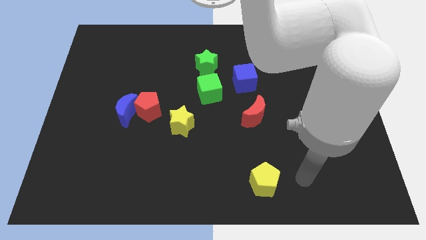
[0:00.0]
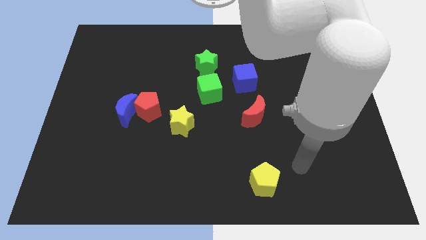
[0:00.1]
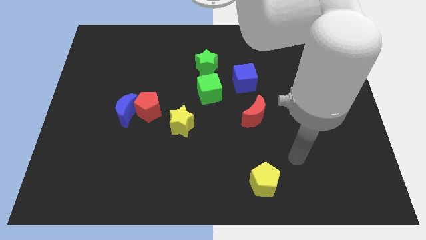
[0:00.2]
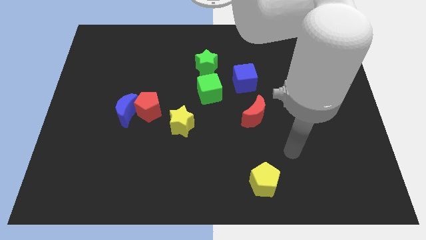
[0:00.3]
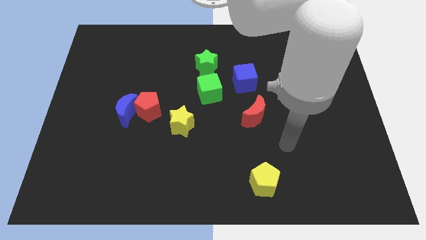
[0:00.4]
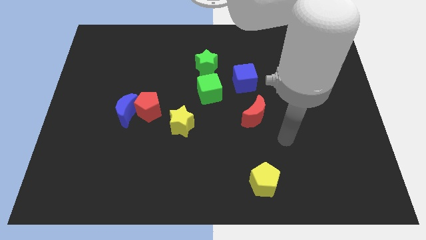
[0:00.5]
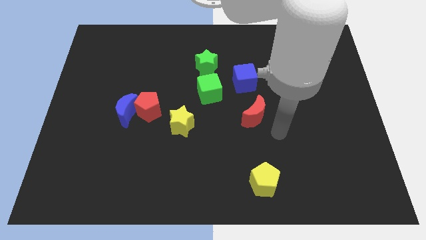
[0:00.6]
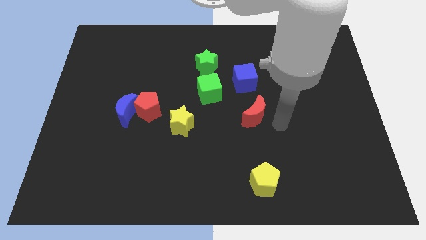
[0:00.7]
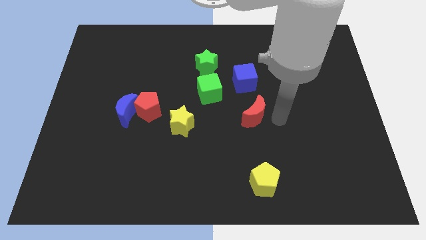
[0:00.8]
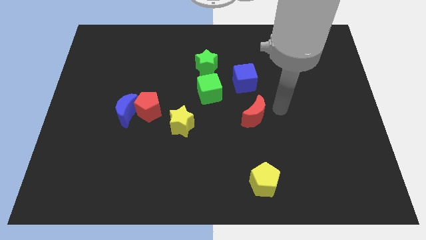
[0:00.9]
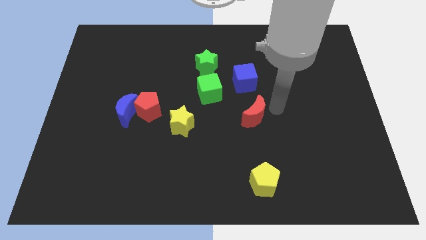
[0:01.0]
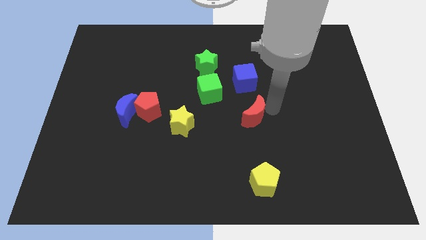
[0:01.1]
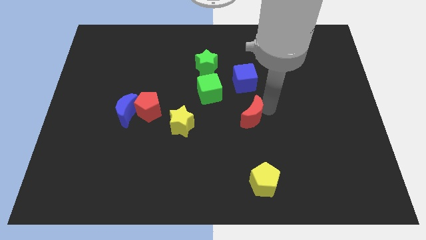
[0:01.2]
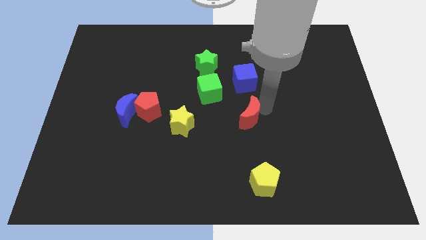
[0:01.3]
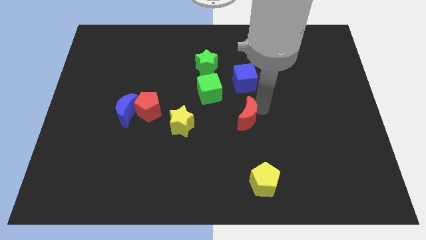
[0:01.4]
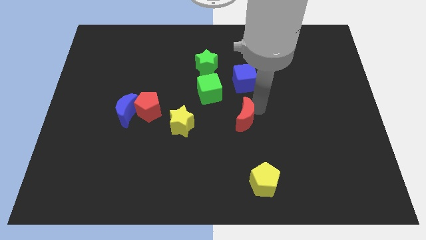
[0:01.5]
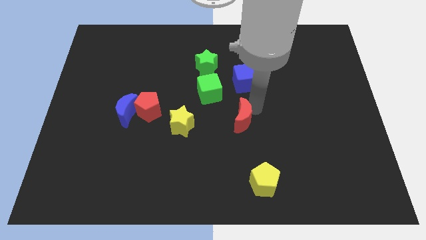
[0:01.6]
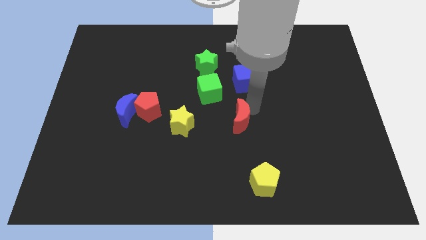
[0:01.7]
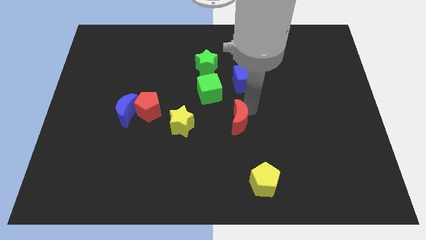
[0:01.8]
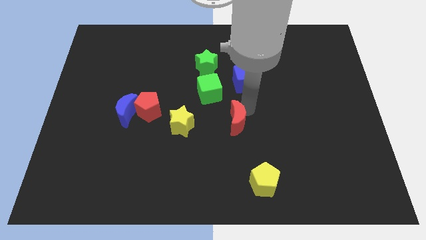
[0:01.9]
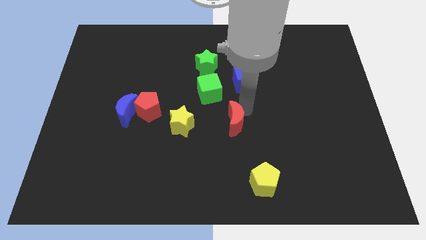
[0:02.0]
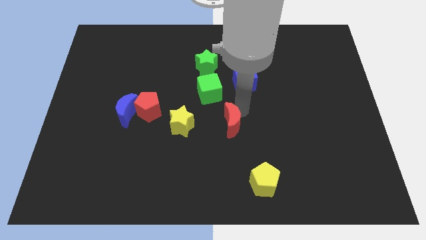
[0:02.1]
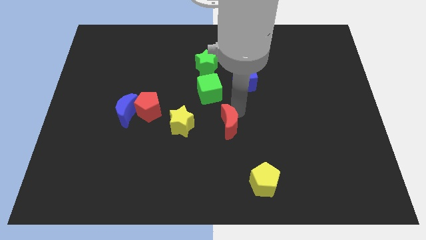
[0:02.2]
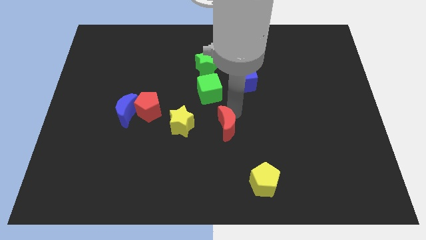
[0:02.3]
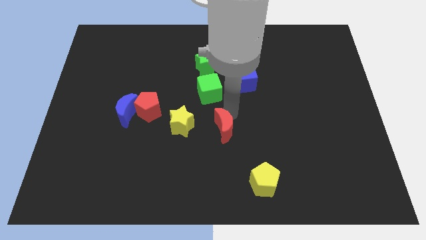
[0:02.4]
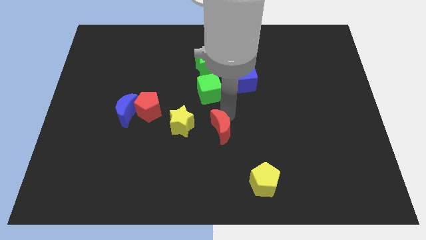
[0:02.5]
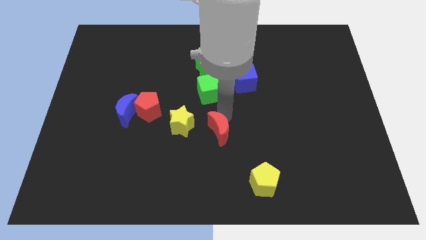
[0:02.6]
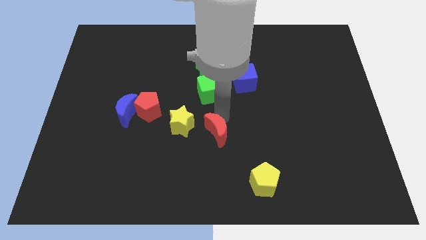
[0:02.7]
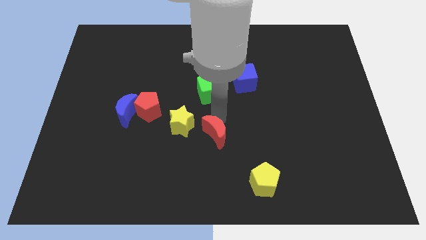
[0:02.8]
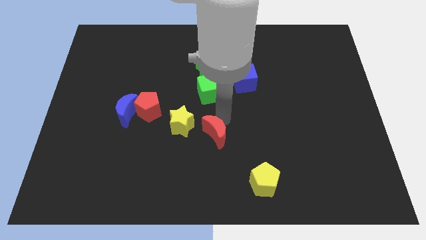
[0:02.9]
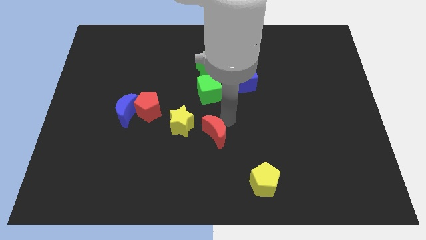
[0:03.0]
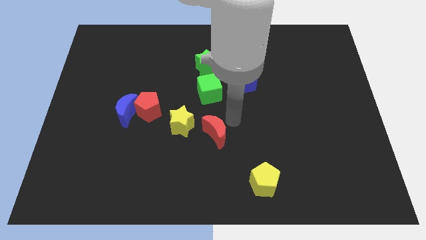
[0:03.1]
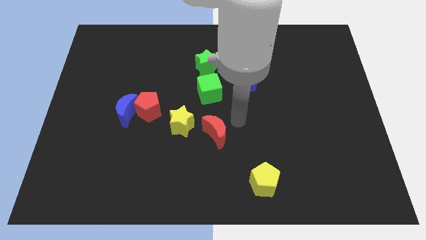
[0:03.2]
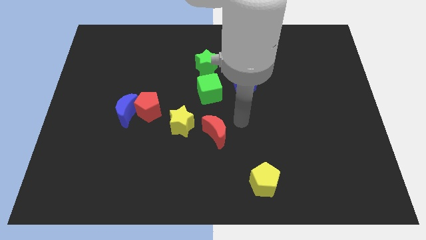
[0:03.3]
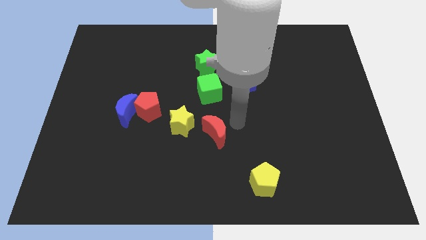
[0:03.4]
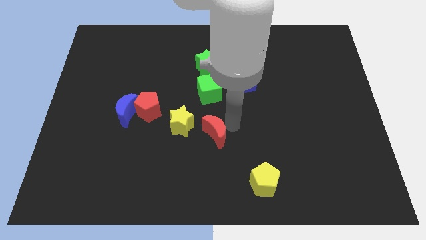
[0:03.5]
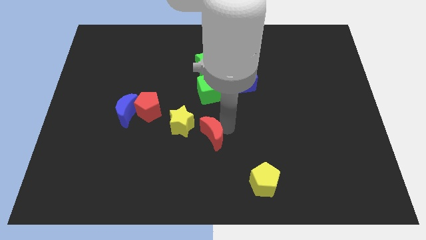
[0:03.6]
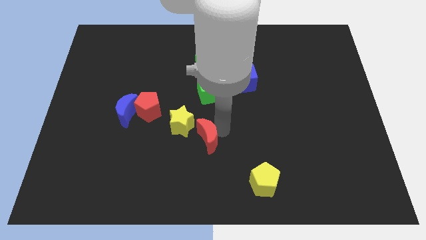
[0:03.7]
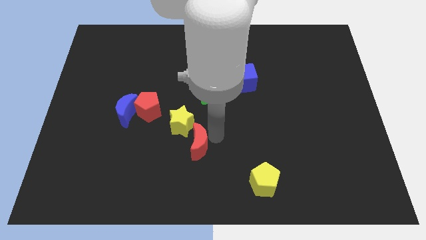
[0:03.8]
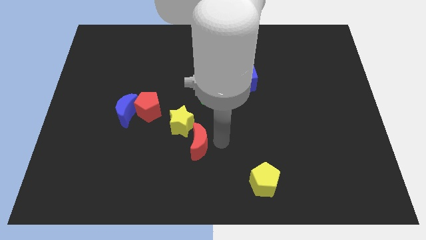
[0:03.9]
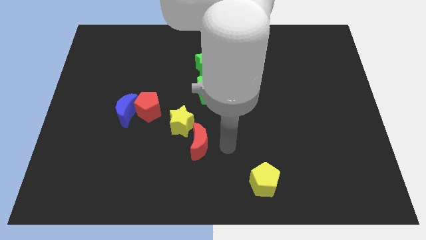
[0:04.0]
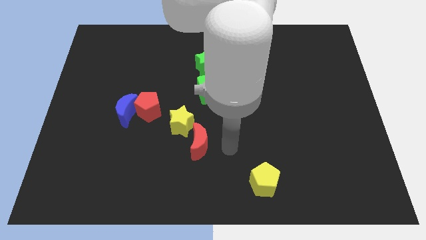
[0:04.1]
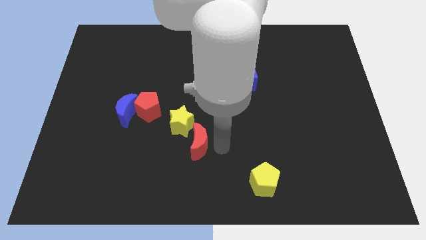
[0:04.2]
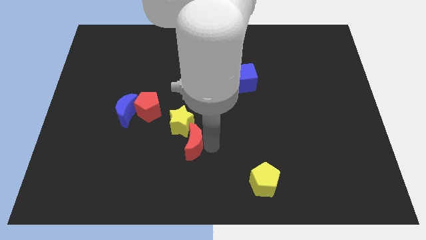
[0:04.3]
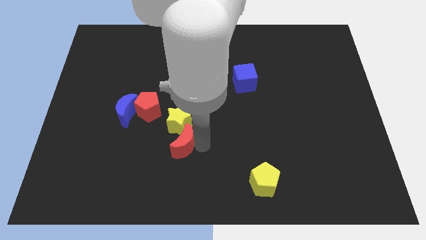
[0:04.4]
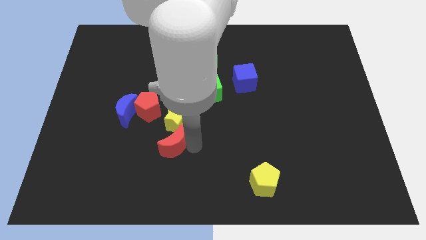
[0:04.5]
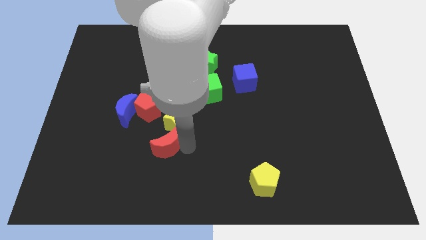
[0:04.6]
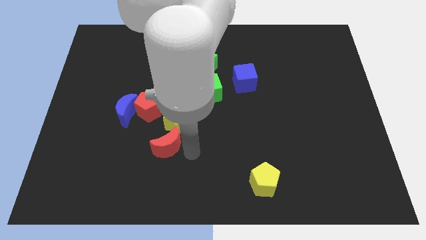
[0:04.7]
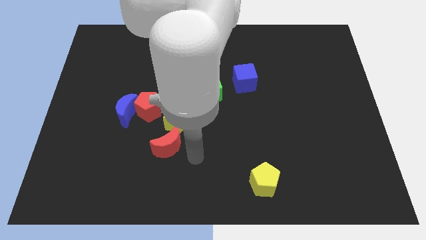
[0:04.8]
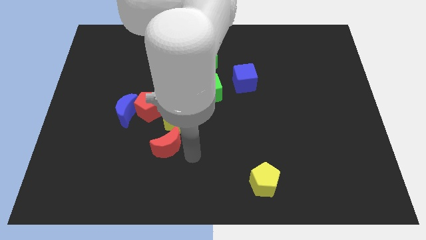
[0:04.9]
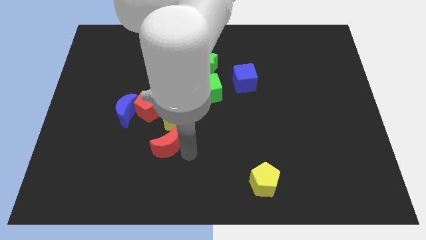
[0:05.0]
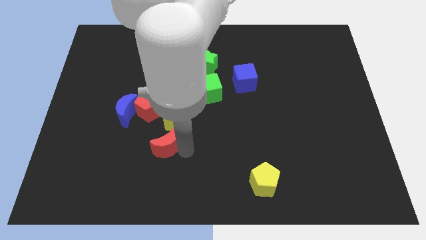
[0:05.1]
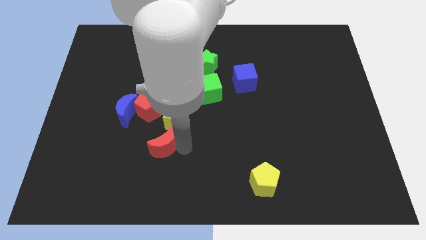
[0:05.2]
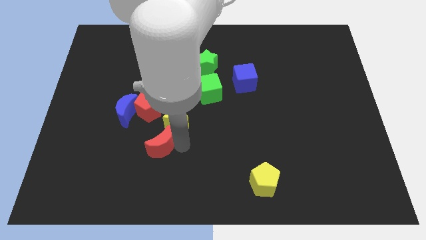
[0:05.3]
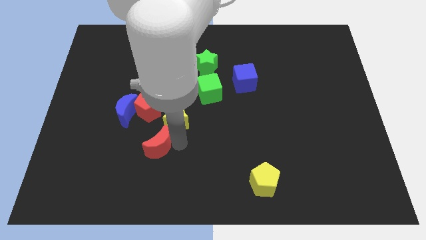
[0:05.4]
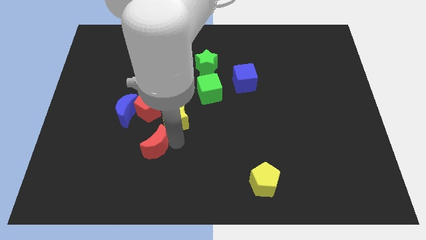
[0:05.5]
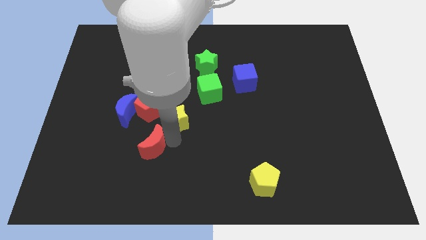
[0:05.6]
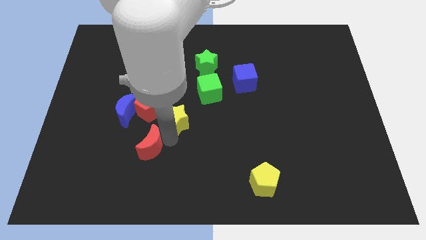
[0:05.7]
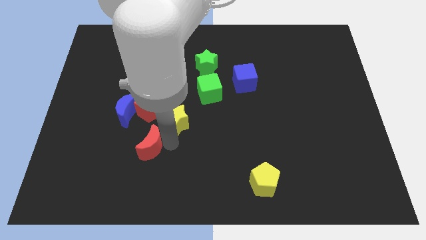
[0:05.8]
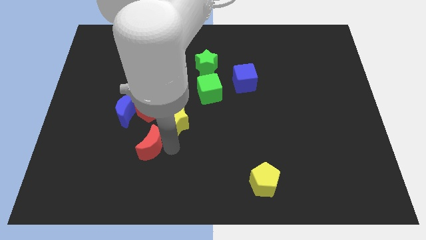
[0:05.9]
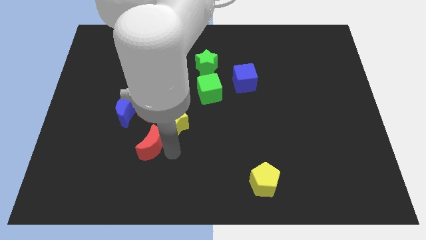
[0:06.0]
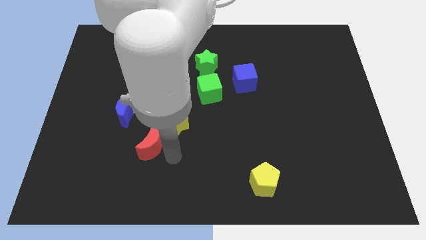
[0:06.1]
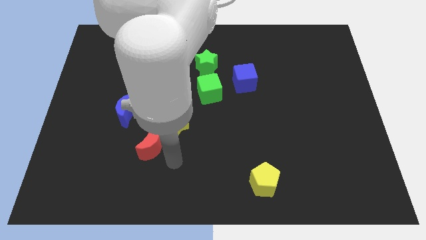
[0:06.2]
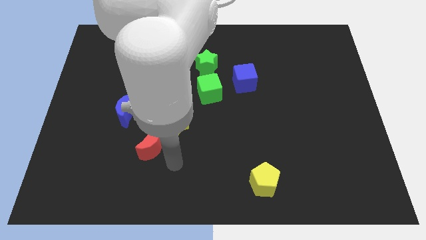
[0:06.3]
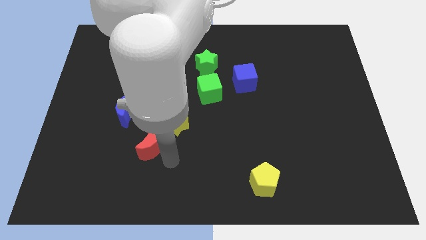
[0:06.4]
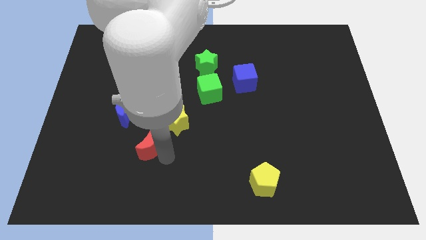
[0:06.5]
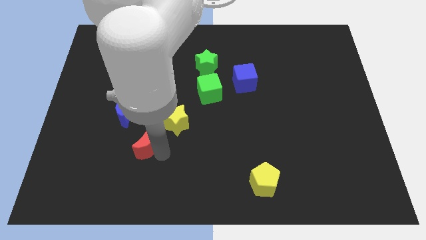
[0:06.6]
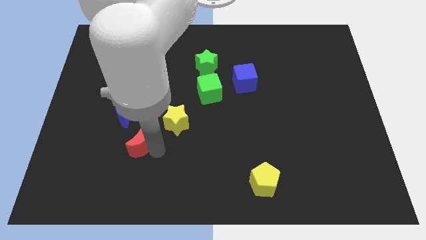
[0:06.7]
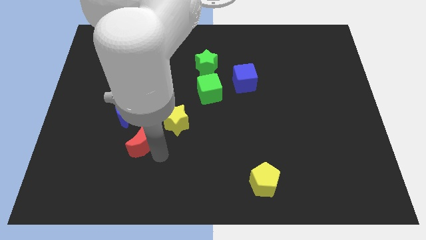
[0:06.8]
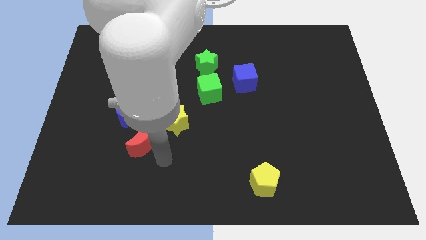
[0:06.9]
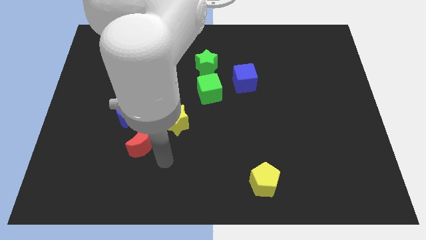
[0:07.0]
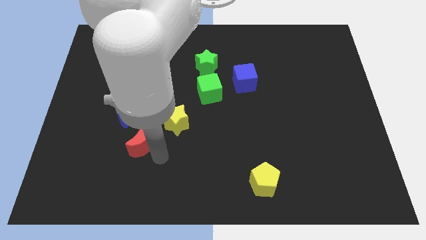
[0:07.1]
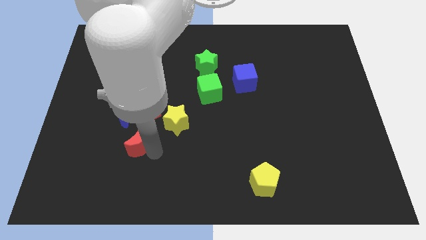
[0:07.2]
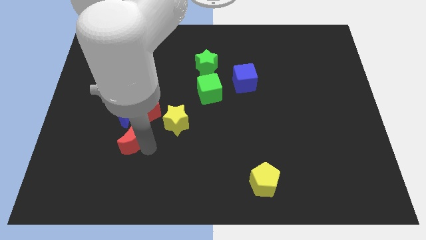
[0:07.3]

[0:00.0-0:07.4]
push the red moon to the bottom left of the red pentagon
